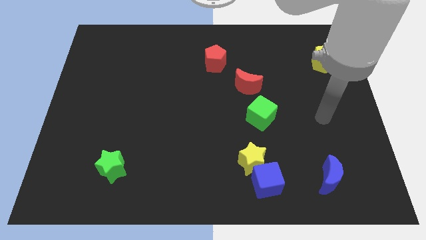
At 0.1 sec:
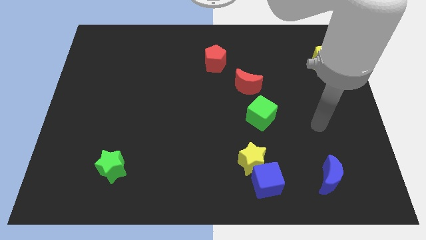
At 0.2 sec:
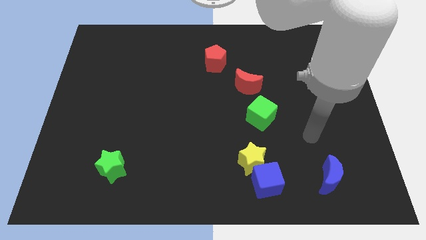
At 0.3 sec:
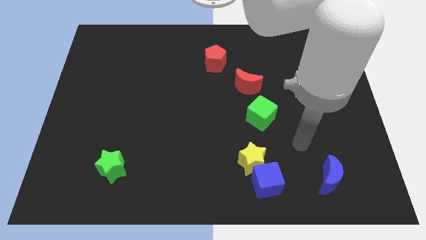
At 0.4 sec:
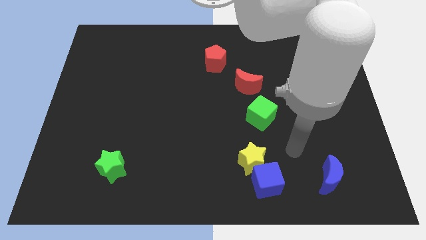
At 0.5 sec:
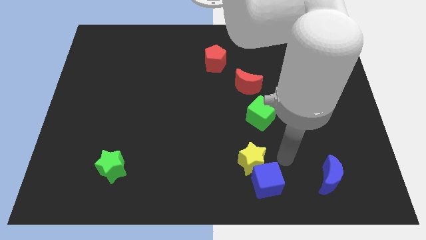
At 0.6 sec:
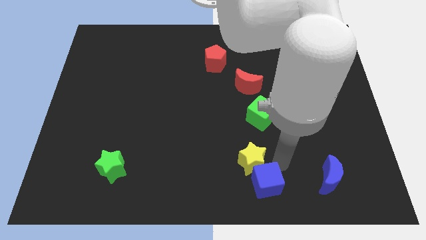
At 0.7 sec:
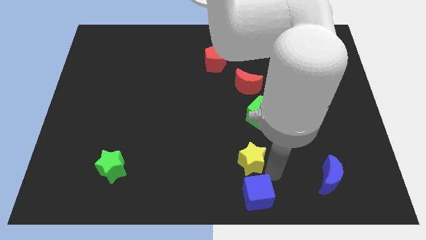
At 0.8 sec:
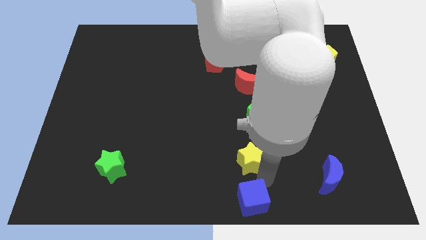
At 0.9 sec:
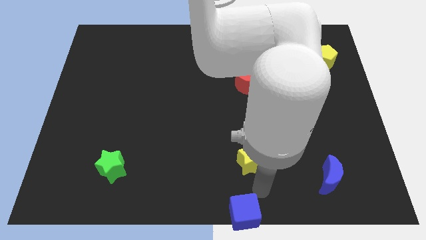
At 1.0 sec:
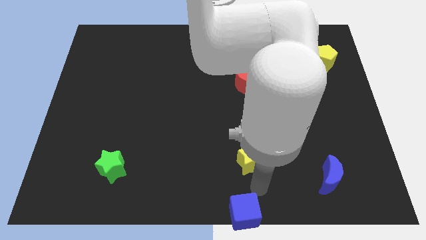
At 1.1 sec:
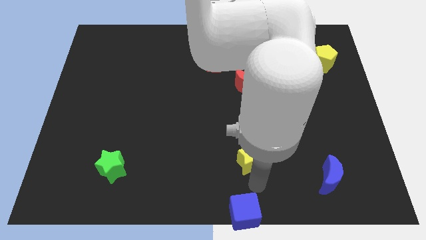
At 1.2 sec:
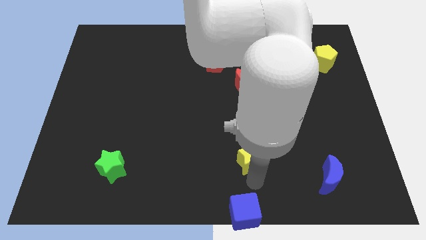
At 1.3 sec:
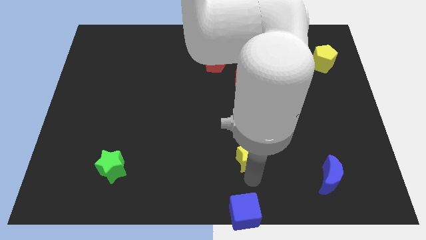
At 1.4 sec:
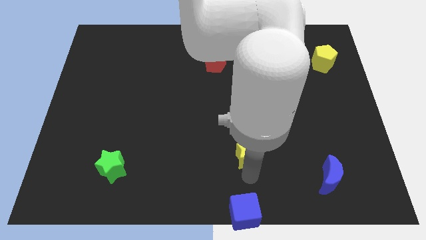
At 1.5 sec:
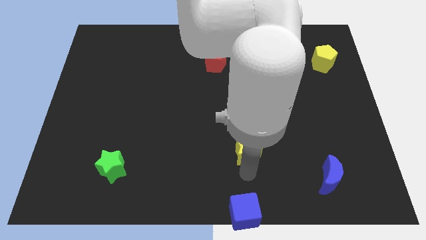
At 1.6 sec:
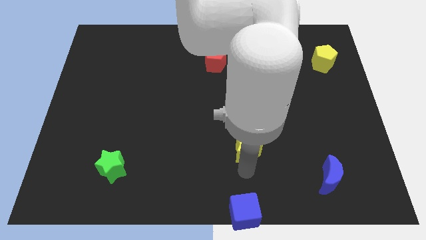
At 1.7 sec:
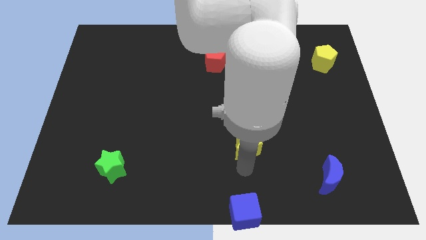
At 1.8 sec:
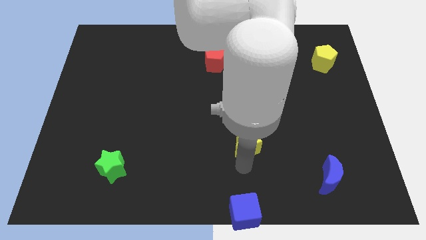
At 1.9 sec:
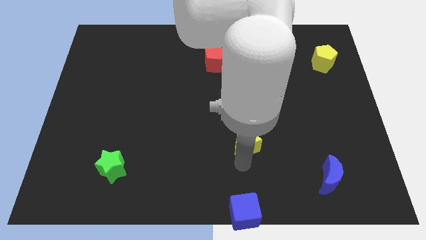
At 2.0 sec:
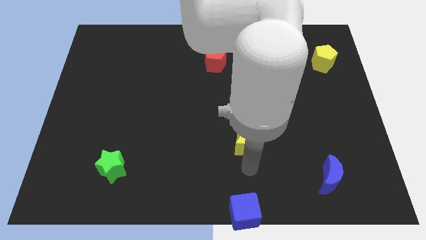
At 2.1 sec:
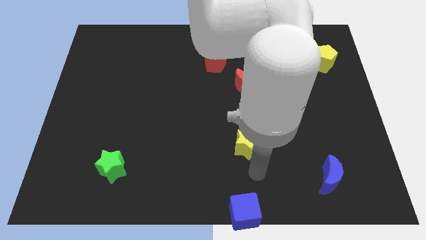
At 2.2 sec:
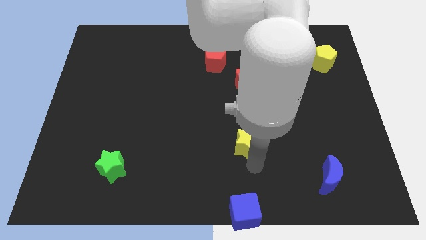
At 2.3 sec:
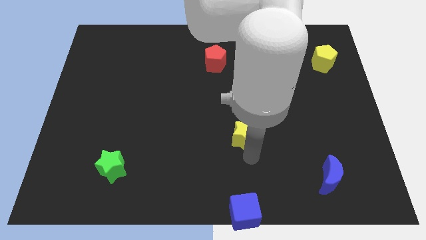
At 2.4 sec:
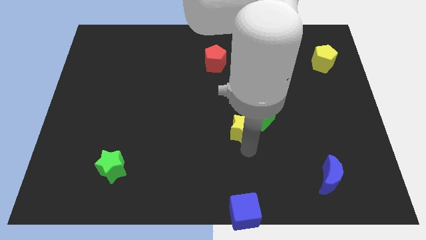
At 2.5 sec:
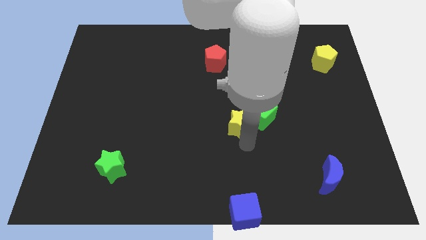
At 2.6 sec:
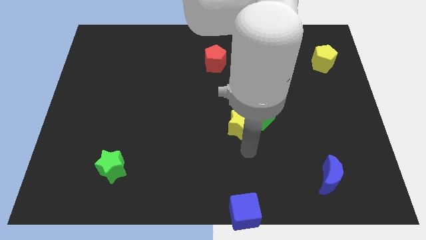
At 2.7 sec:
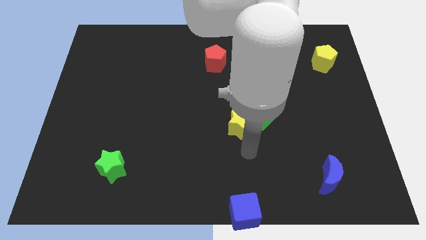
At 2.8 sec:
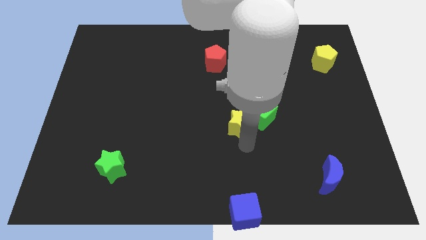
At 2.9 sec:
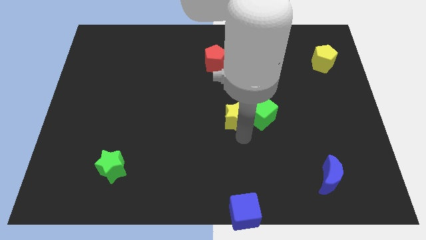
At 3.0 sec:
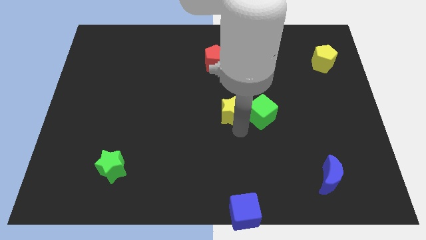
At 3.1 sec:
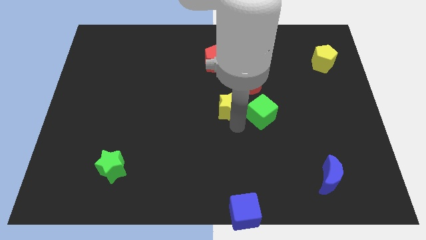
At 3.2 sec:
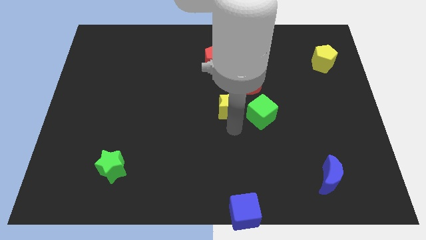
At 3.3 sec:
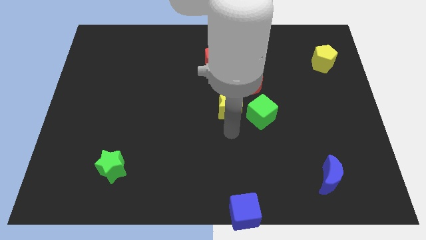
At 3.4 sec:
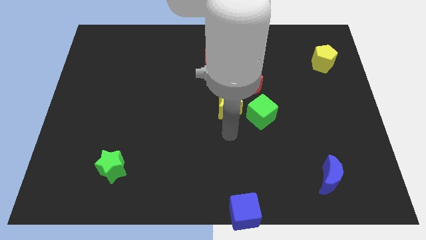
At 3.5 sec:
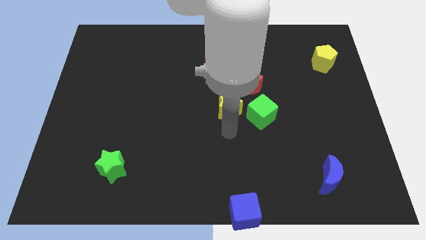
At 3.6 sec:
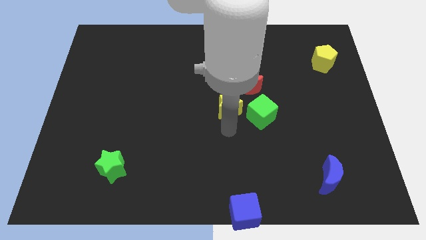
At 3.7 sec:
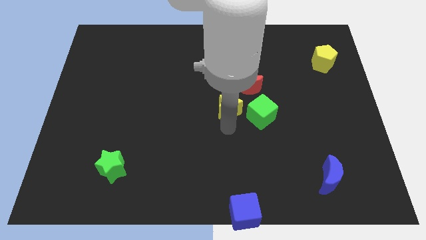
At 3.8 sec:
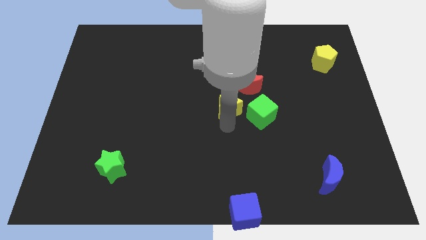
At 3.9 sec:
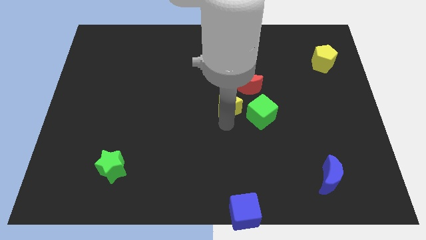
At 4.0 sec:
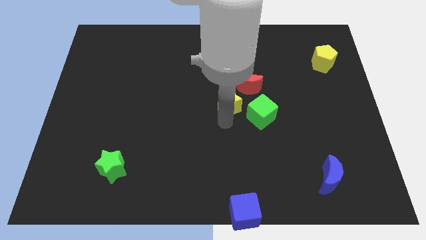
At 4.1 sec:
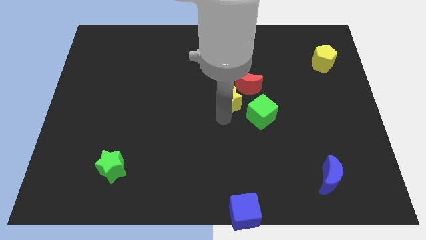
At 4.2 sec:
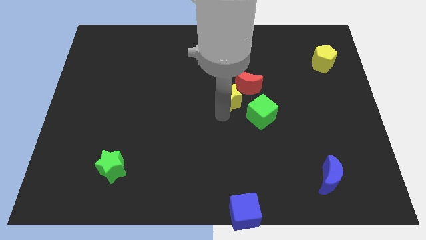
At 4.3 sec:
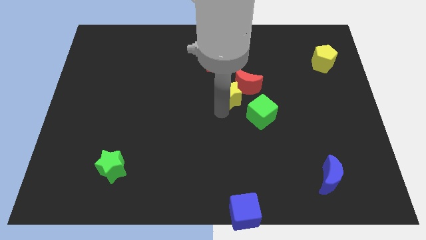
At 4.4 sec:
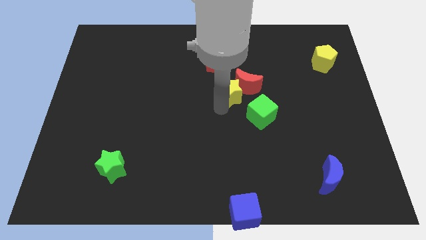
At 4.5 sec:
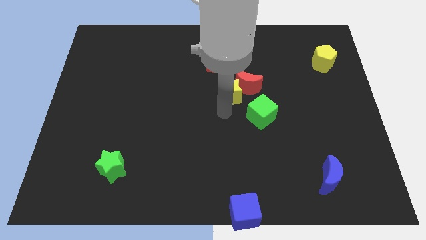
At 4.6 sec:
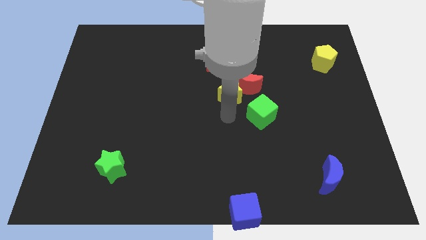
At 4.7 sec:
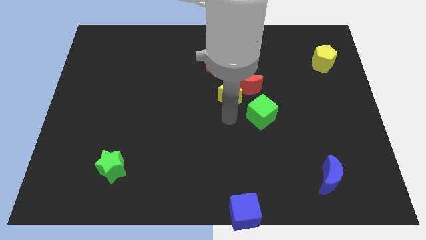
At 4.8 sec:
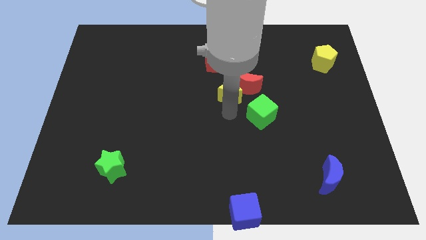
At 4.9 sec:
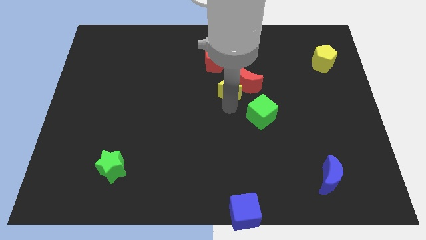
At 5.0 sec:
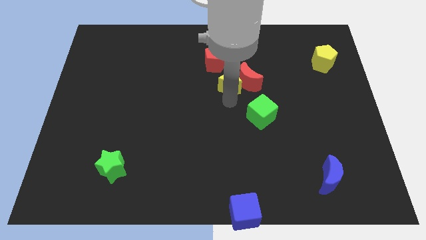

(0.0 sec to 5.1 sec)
push the yellow star up

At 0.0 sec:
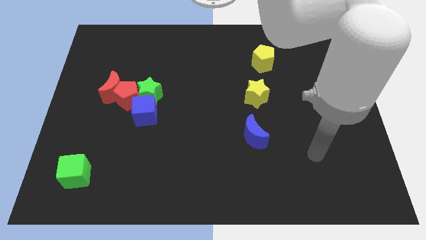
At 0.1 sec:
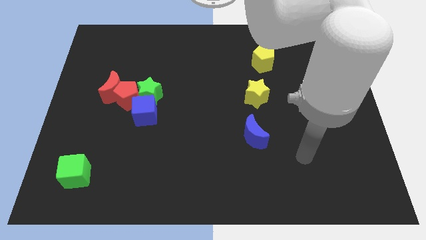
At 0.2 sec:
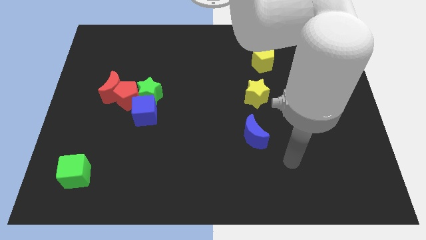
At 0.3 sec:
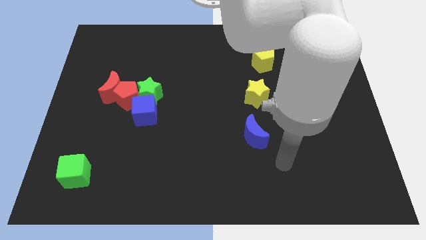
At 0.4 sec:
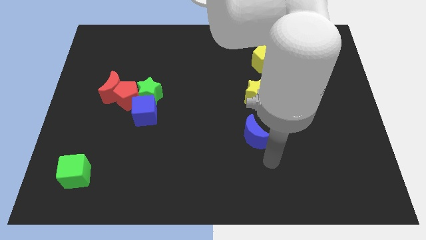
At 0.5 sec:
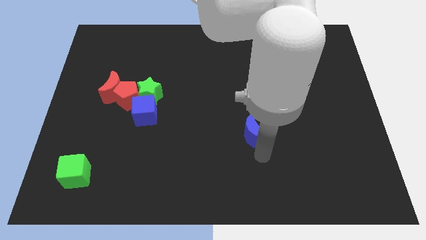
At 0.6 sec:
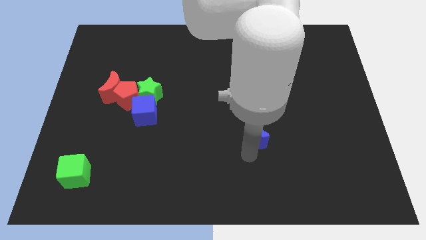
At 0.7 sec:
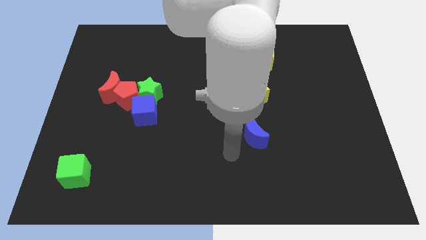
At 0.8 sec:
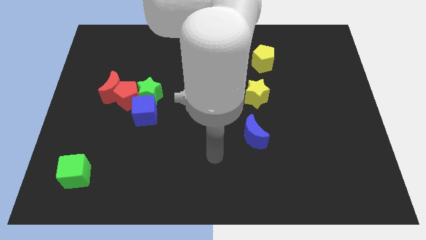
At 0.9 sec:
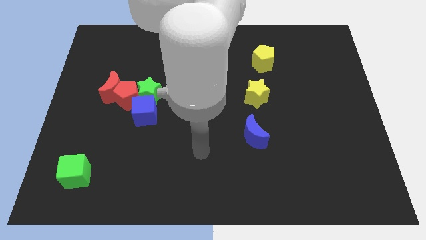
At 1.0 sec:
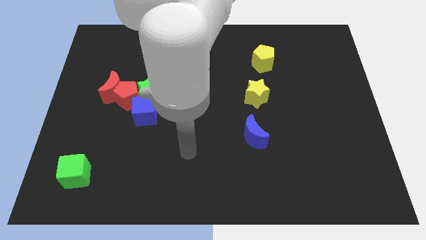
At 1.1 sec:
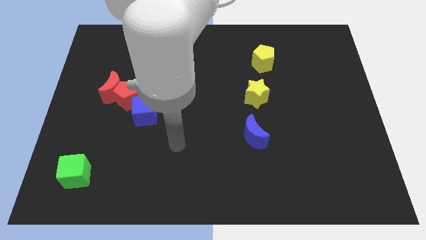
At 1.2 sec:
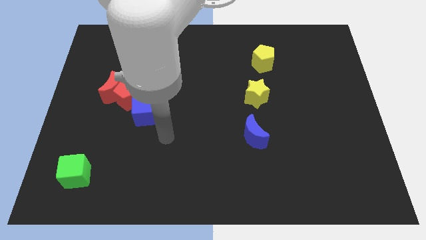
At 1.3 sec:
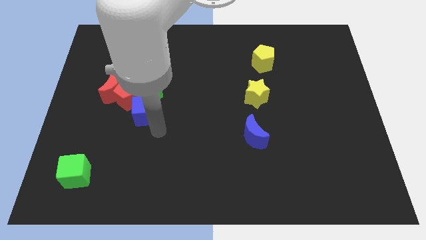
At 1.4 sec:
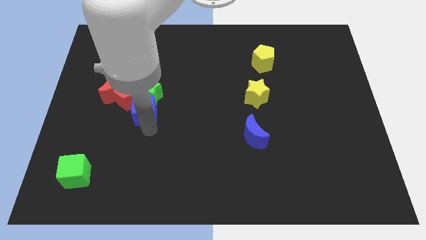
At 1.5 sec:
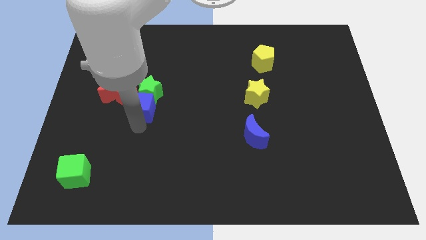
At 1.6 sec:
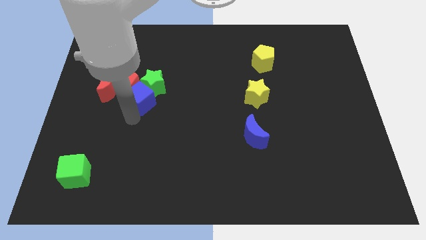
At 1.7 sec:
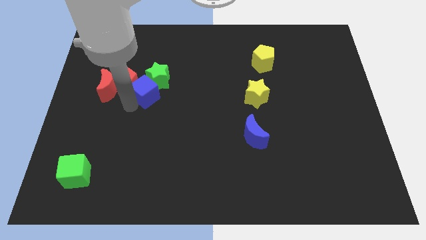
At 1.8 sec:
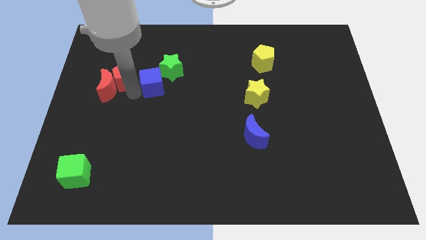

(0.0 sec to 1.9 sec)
slide the green star slightly upwards and to the right diagonally

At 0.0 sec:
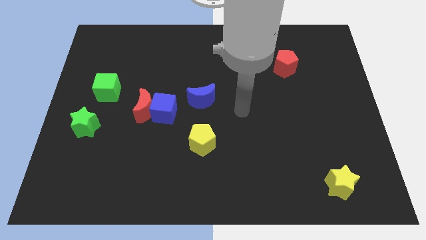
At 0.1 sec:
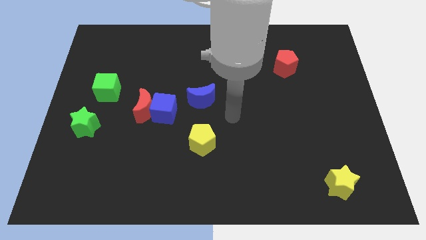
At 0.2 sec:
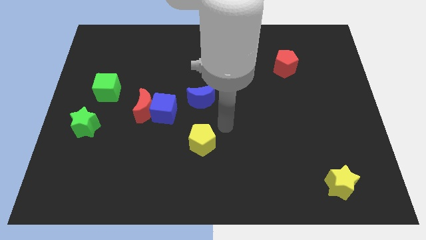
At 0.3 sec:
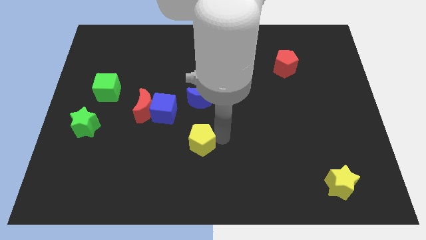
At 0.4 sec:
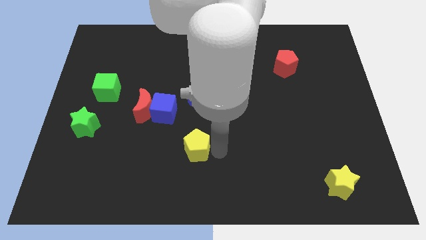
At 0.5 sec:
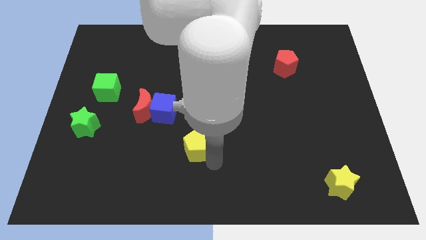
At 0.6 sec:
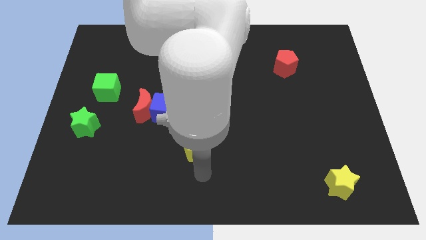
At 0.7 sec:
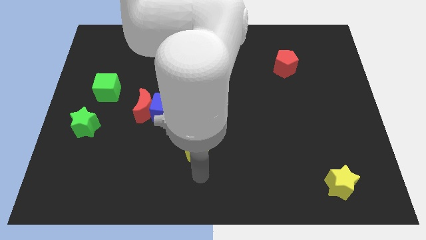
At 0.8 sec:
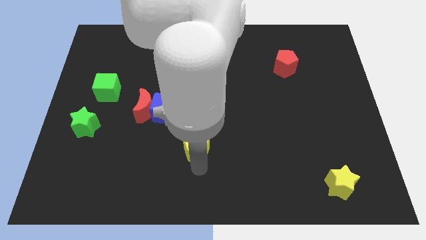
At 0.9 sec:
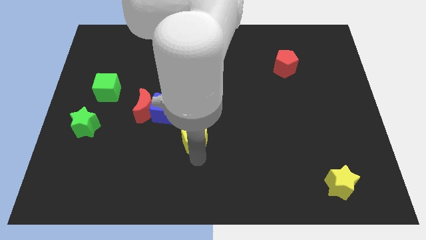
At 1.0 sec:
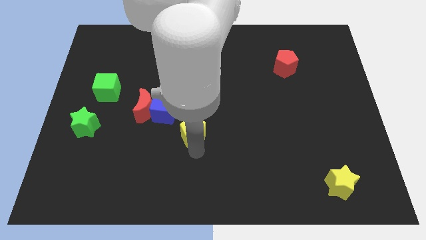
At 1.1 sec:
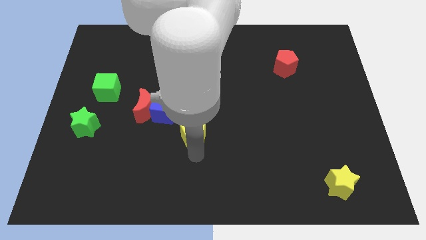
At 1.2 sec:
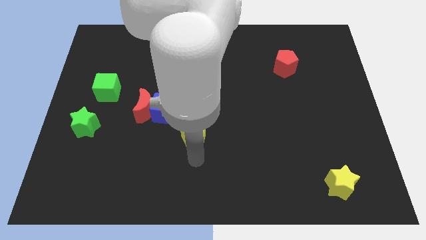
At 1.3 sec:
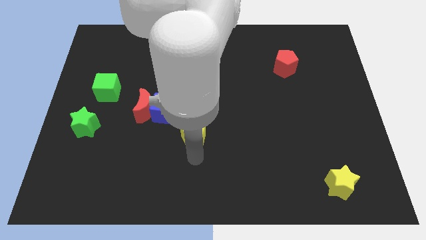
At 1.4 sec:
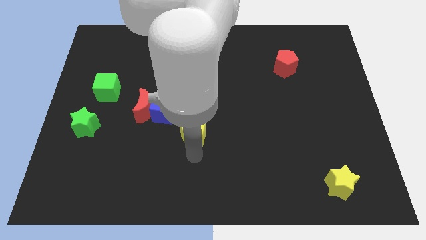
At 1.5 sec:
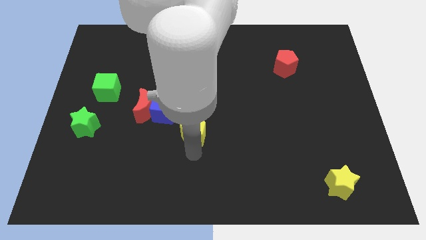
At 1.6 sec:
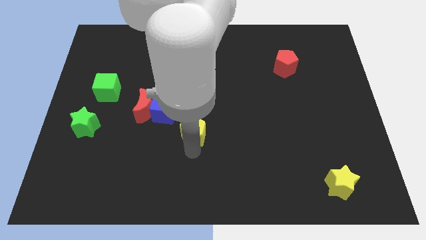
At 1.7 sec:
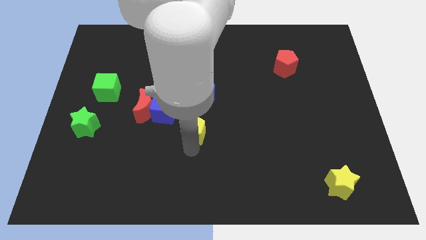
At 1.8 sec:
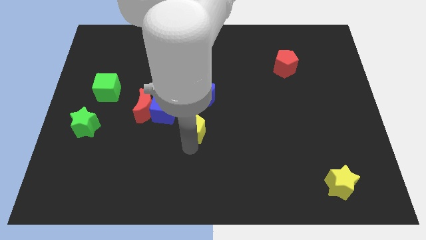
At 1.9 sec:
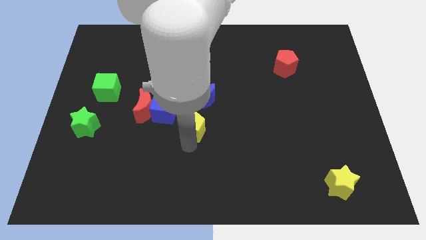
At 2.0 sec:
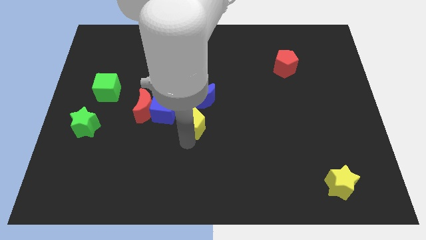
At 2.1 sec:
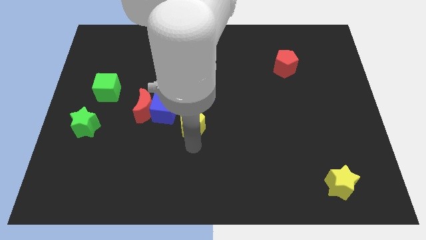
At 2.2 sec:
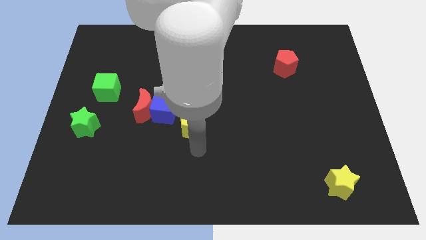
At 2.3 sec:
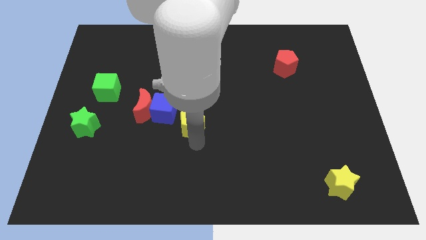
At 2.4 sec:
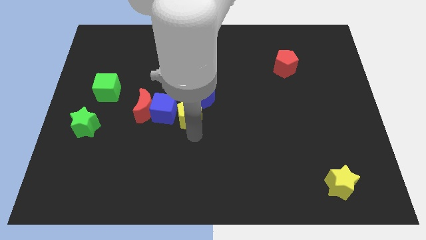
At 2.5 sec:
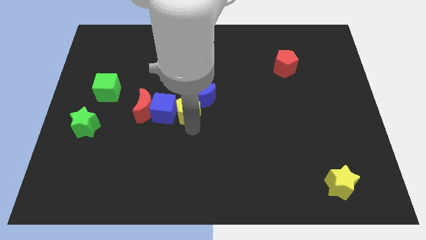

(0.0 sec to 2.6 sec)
push the yellow pentagon up a bit
